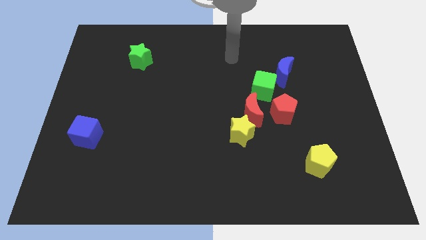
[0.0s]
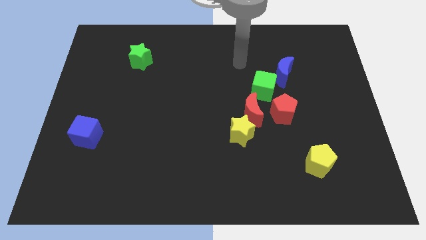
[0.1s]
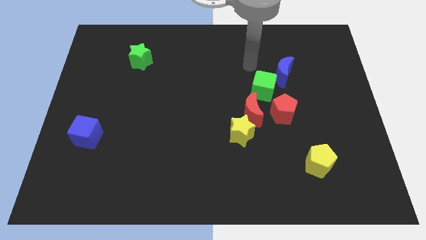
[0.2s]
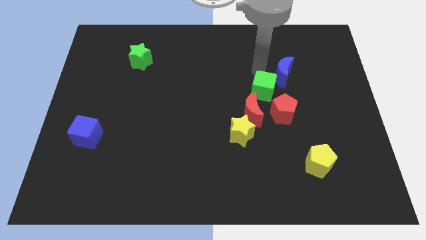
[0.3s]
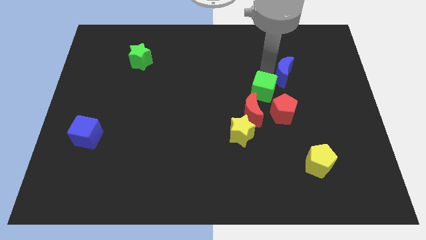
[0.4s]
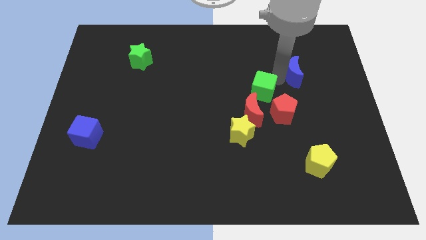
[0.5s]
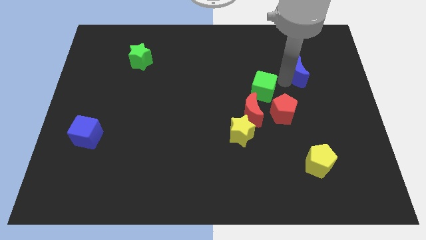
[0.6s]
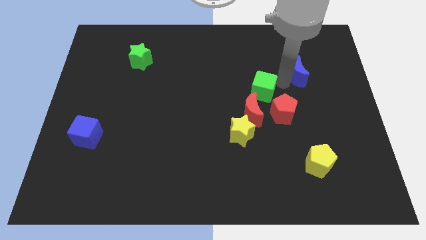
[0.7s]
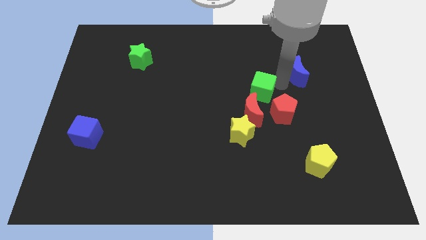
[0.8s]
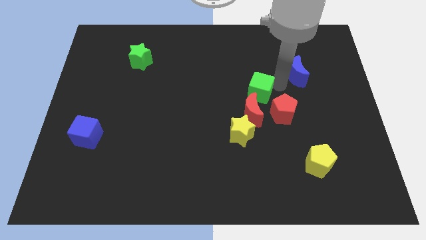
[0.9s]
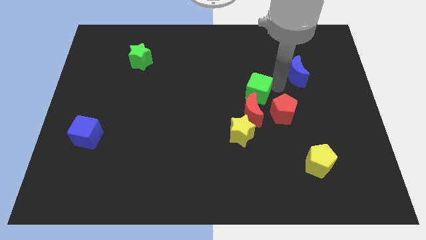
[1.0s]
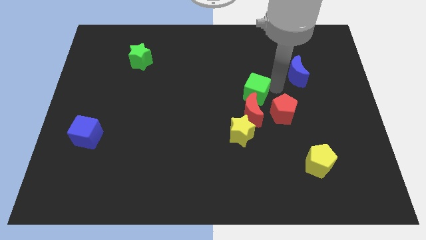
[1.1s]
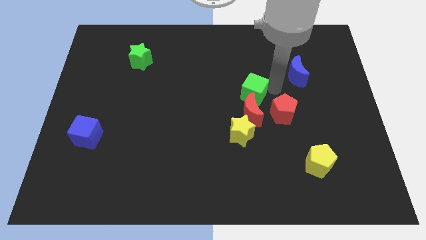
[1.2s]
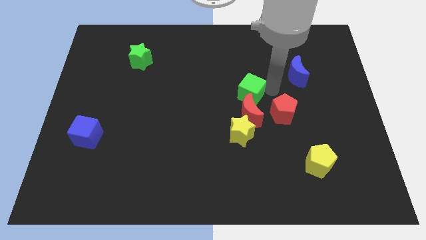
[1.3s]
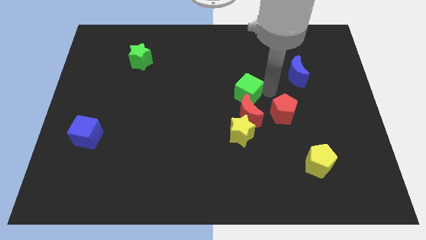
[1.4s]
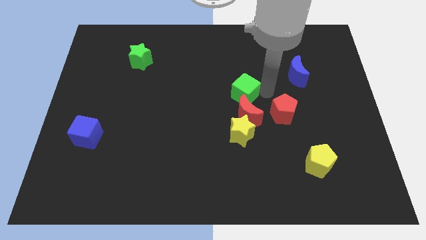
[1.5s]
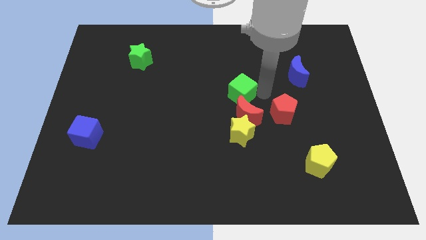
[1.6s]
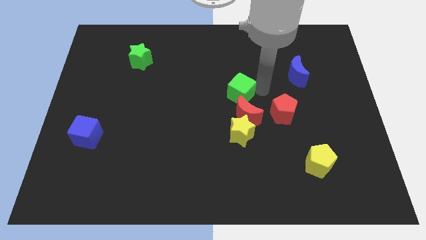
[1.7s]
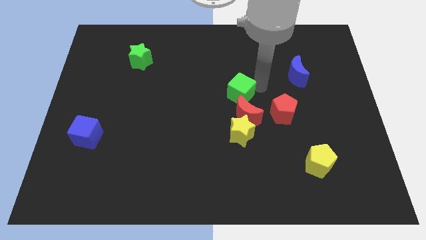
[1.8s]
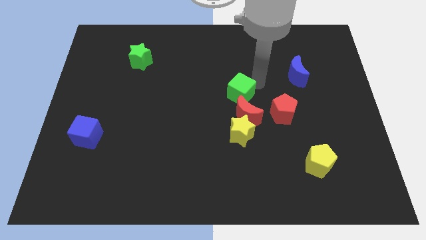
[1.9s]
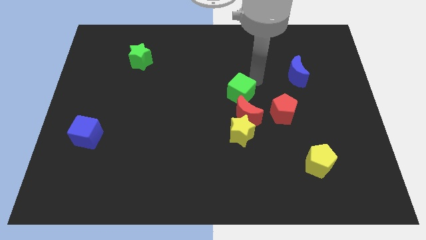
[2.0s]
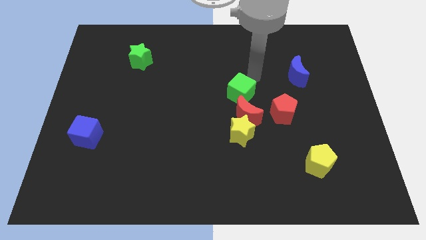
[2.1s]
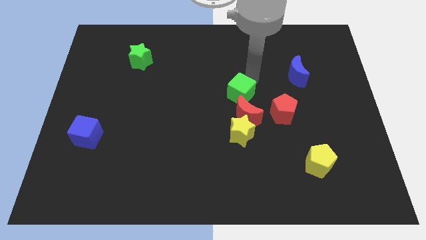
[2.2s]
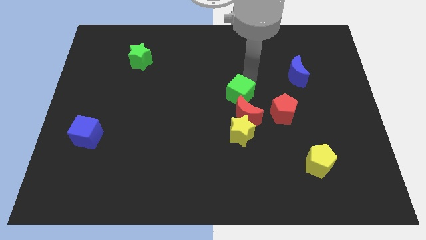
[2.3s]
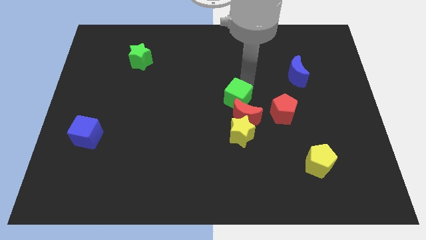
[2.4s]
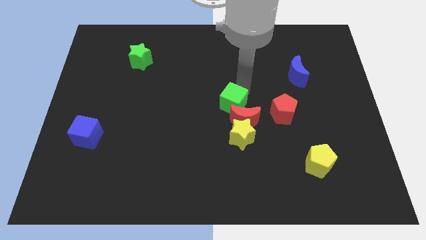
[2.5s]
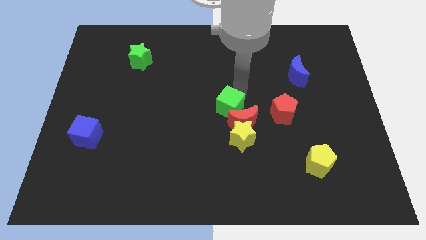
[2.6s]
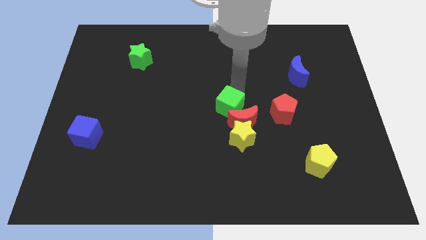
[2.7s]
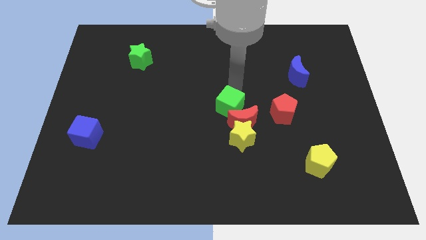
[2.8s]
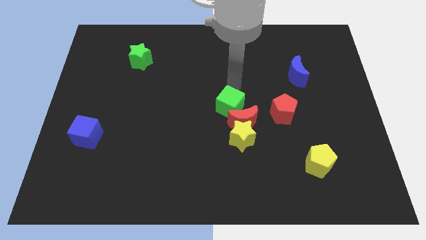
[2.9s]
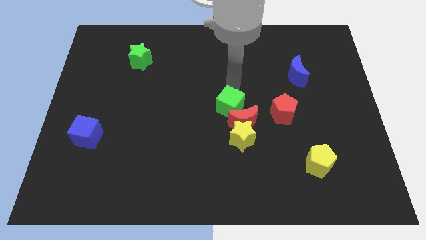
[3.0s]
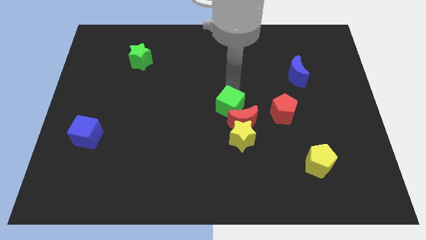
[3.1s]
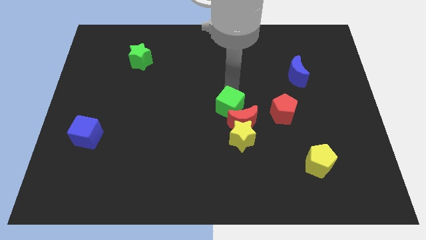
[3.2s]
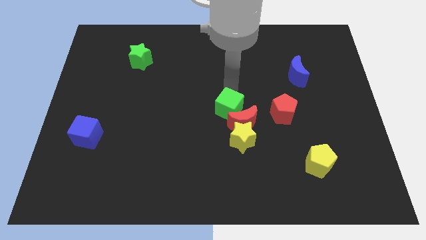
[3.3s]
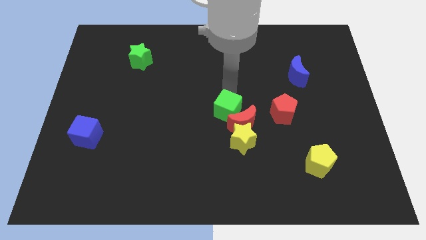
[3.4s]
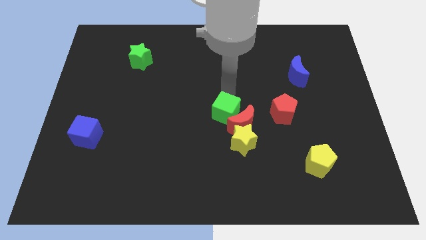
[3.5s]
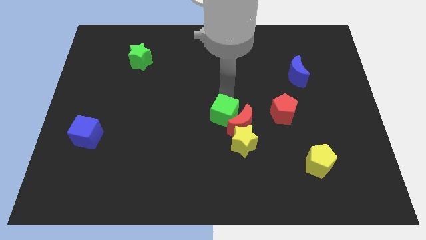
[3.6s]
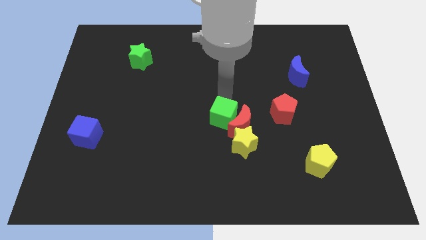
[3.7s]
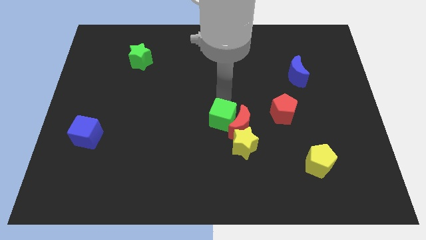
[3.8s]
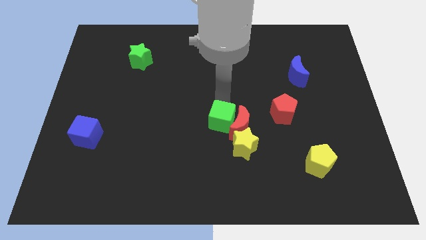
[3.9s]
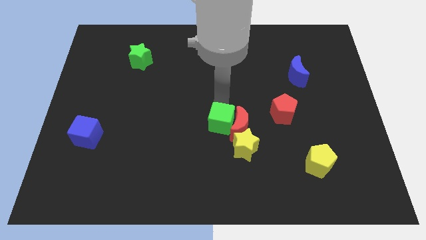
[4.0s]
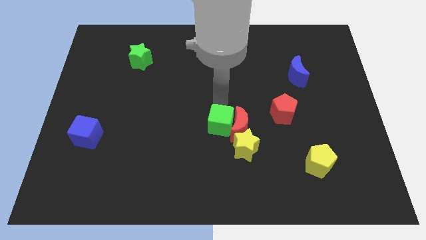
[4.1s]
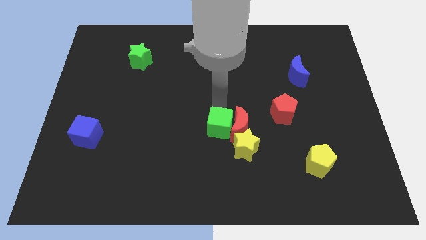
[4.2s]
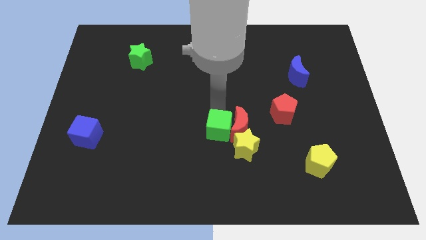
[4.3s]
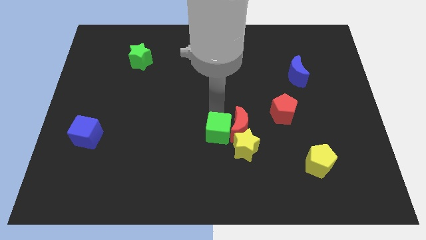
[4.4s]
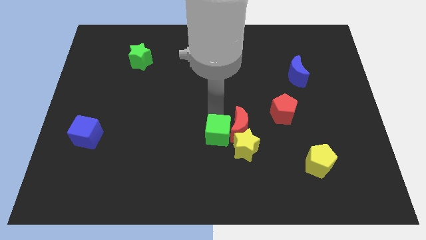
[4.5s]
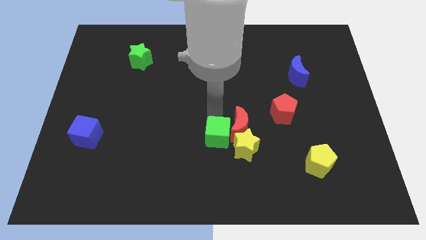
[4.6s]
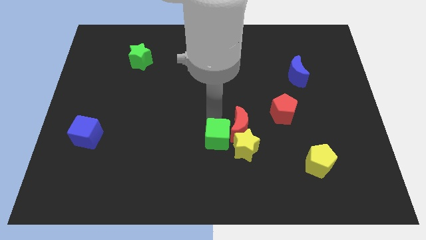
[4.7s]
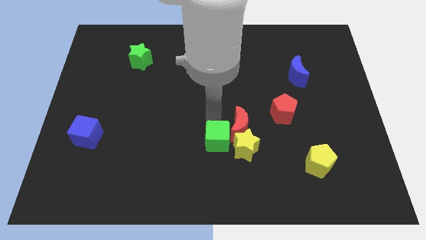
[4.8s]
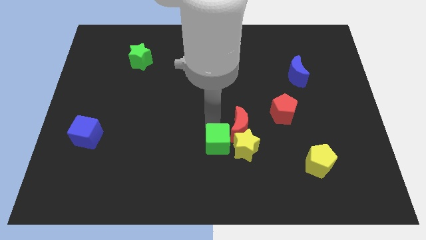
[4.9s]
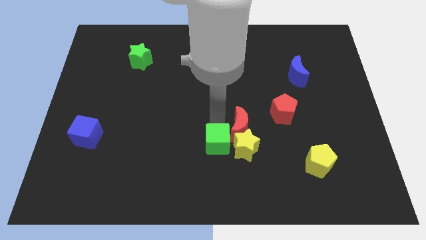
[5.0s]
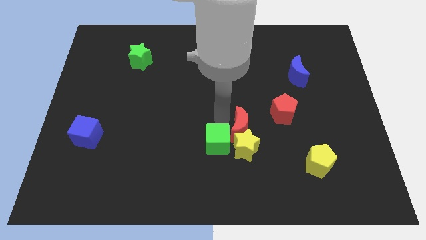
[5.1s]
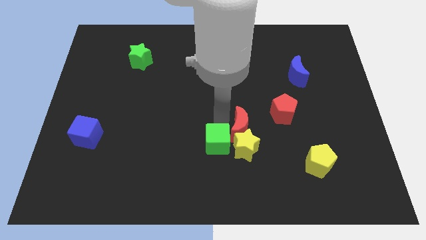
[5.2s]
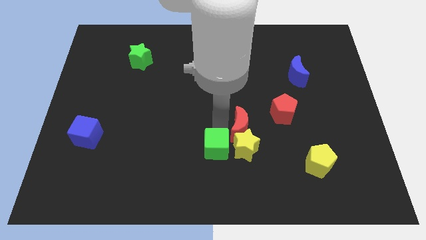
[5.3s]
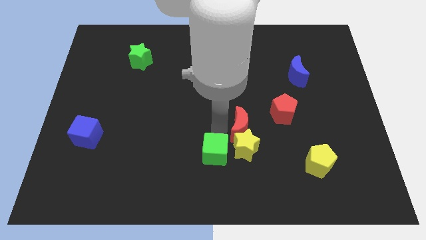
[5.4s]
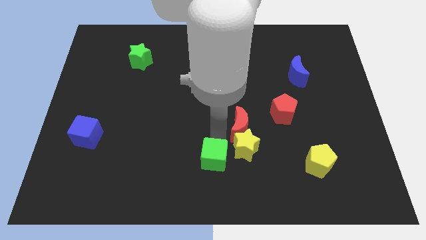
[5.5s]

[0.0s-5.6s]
move the green cube to the bottom side

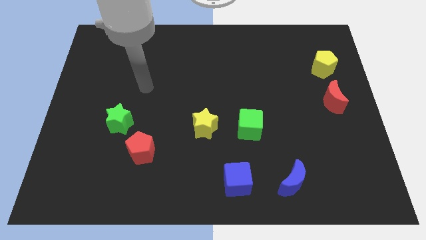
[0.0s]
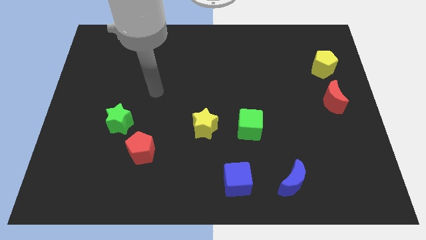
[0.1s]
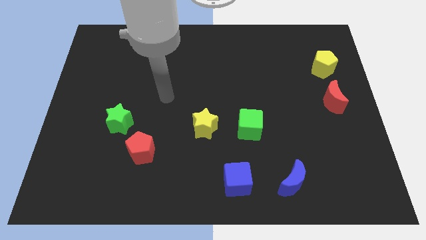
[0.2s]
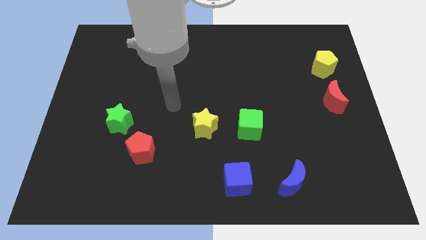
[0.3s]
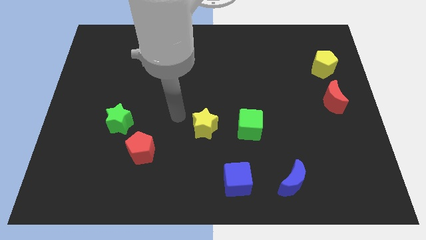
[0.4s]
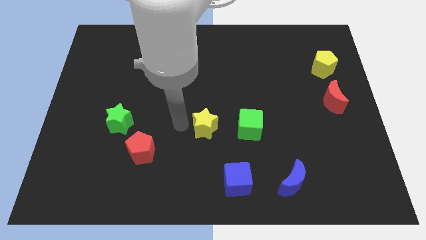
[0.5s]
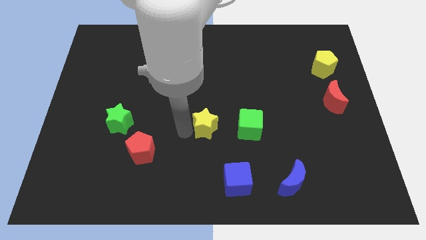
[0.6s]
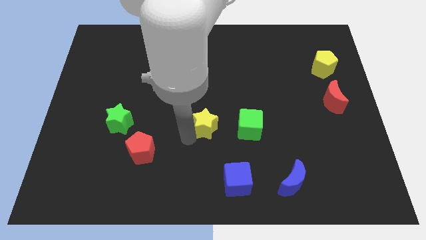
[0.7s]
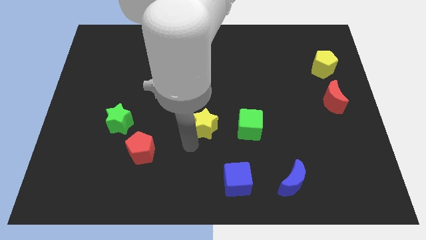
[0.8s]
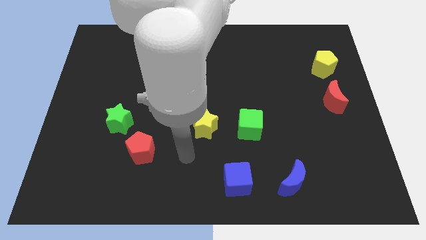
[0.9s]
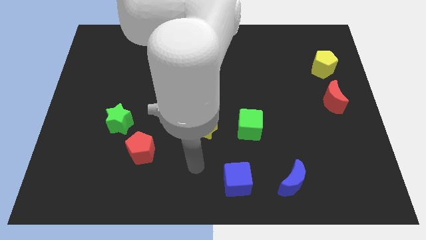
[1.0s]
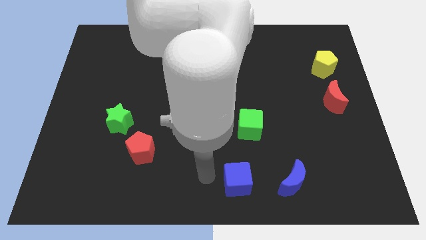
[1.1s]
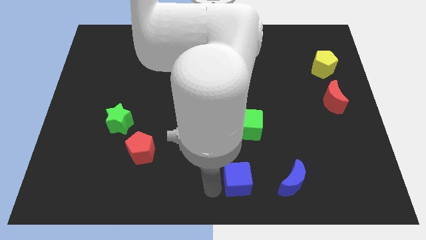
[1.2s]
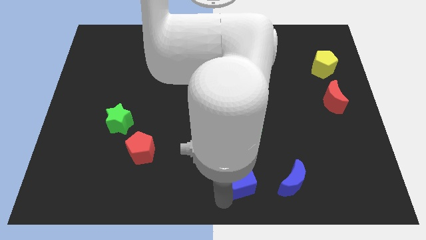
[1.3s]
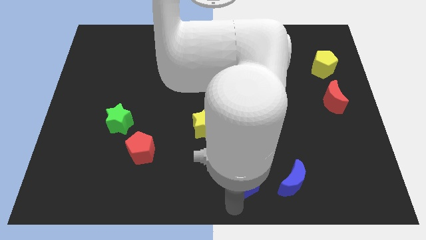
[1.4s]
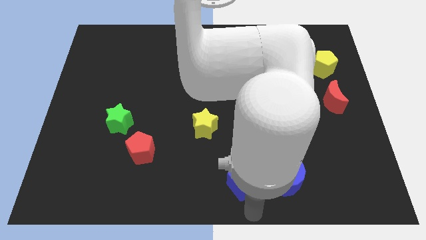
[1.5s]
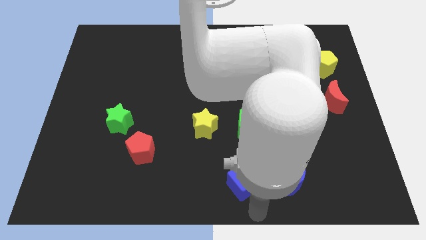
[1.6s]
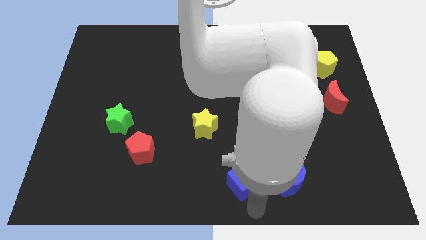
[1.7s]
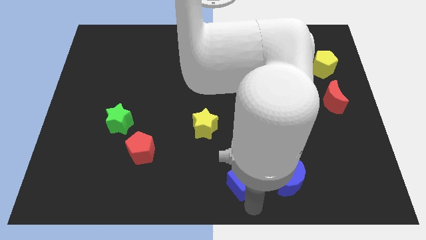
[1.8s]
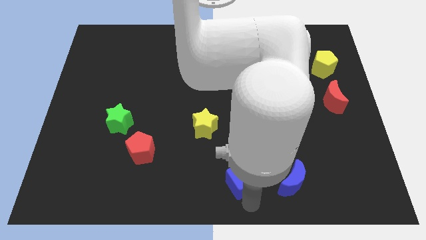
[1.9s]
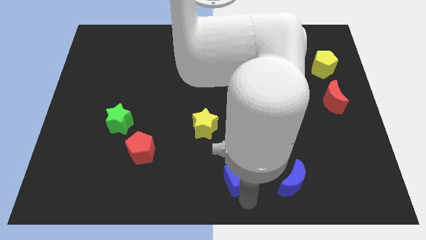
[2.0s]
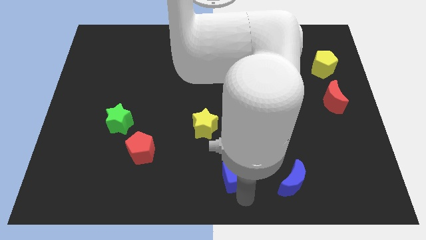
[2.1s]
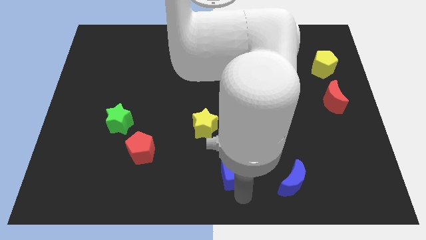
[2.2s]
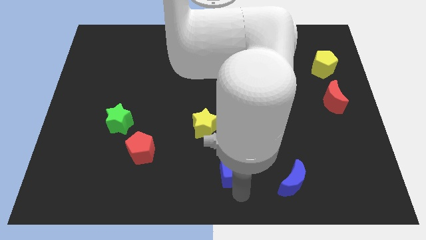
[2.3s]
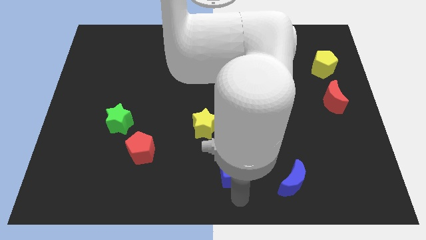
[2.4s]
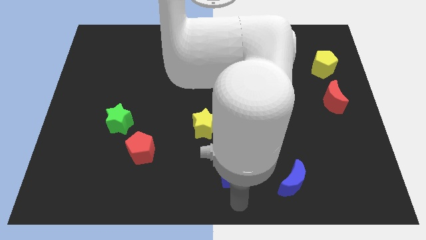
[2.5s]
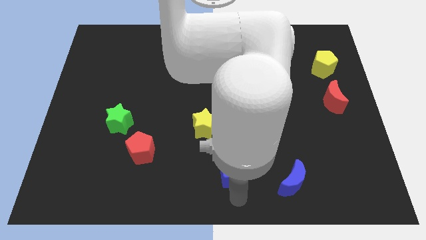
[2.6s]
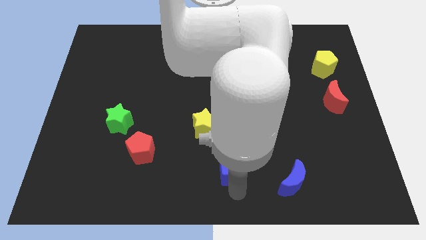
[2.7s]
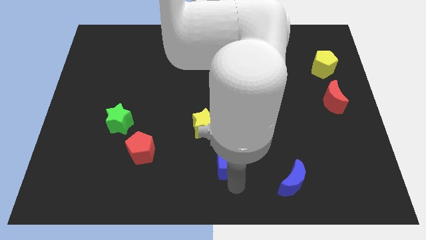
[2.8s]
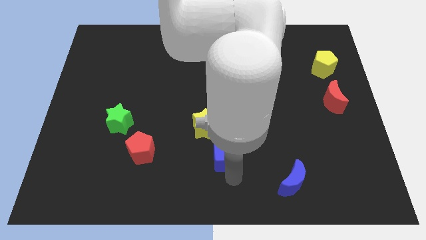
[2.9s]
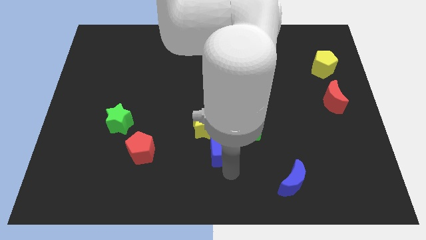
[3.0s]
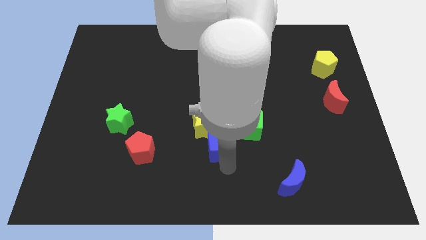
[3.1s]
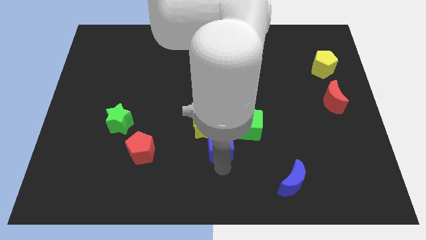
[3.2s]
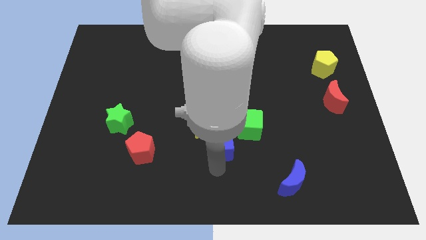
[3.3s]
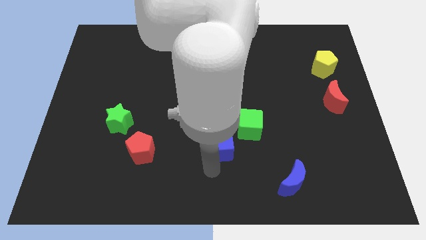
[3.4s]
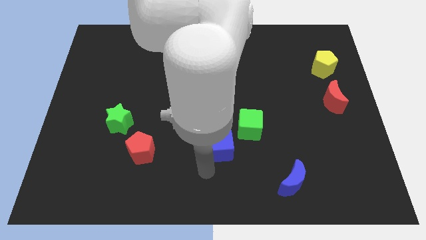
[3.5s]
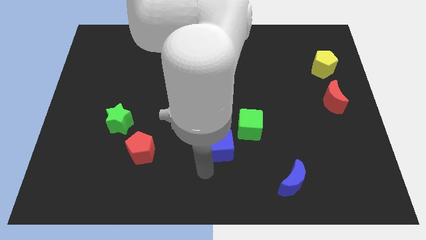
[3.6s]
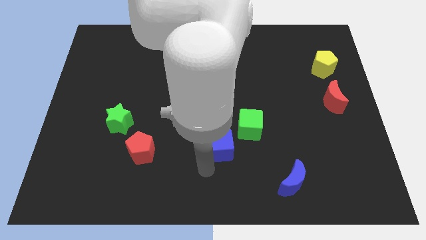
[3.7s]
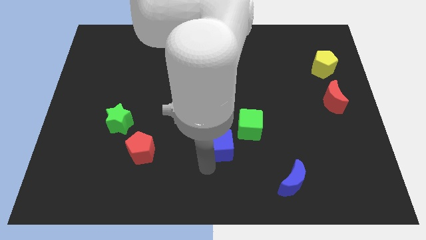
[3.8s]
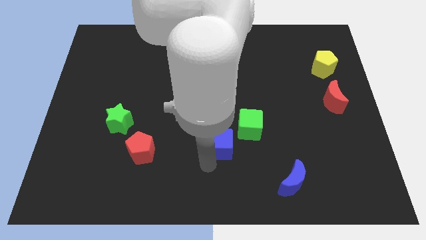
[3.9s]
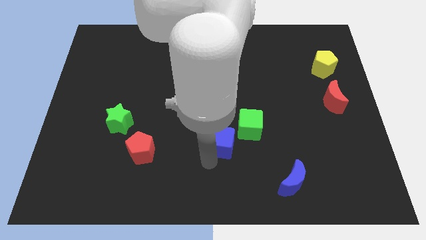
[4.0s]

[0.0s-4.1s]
move the blue cube to the middle of the board
